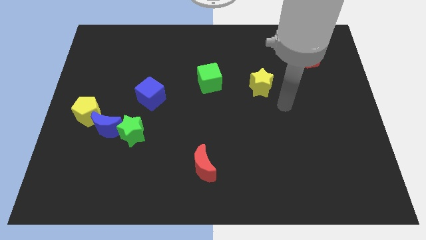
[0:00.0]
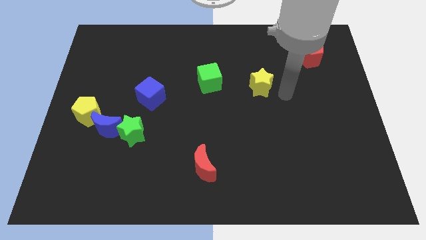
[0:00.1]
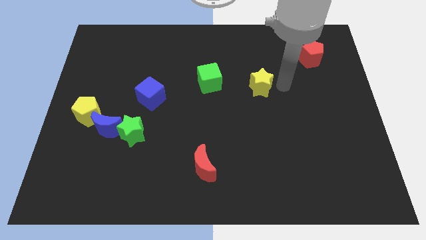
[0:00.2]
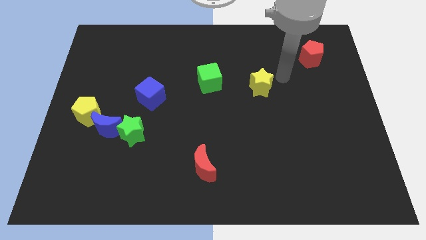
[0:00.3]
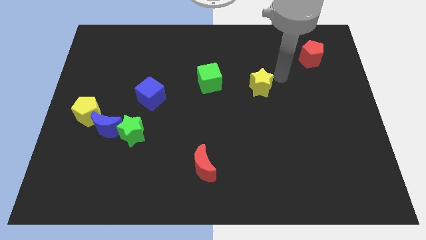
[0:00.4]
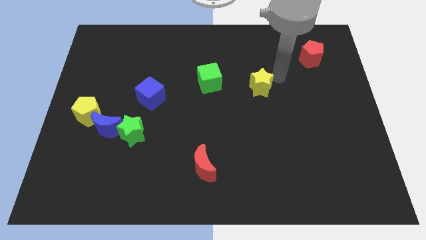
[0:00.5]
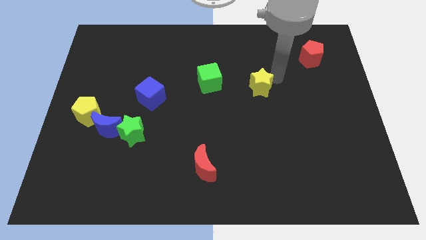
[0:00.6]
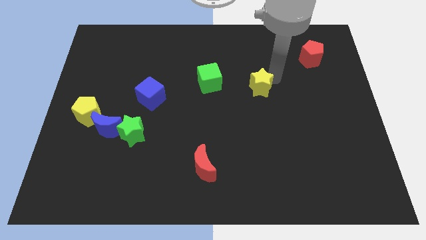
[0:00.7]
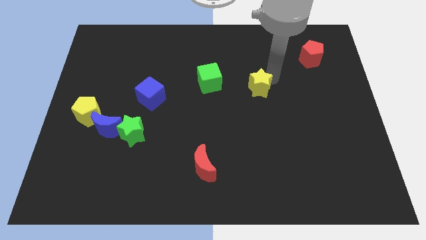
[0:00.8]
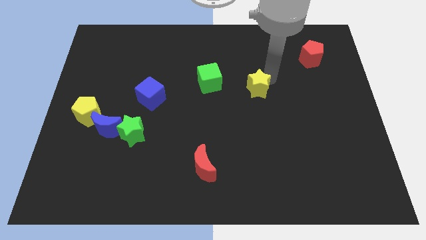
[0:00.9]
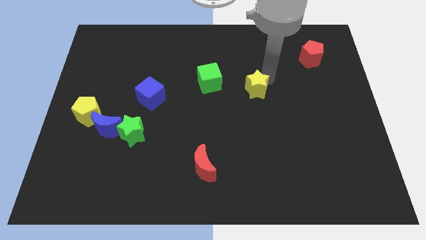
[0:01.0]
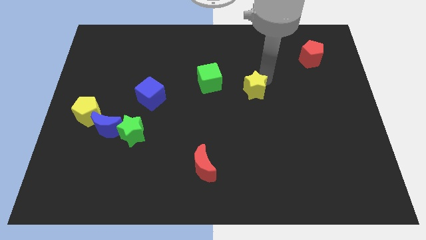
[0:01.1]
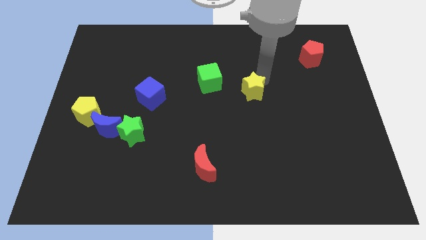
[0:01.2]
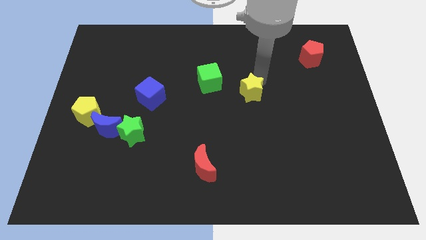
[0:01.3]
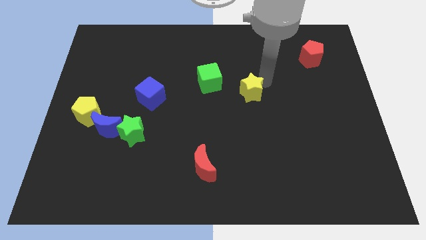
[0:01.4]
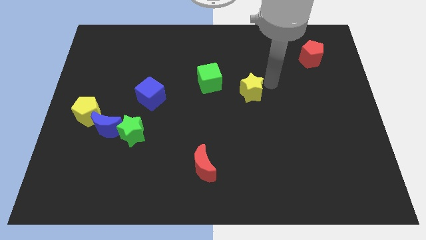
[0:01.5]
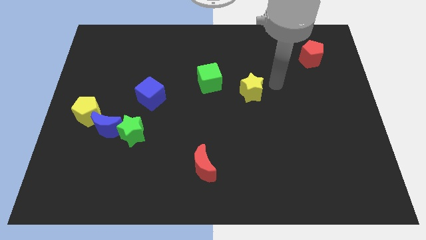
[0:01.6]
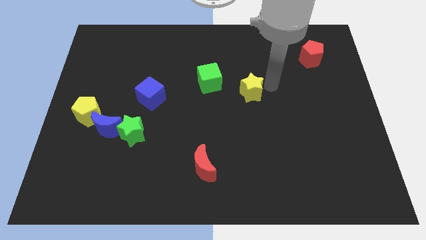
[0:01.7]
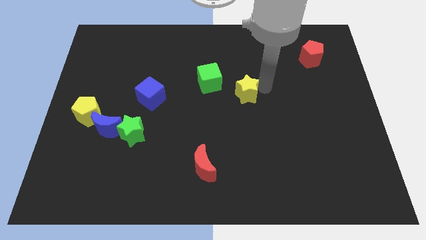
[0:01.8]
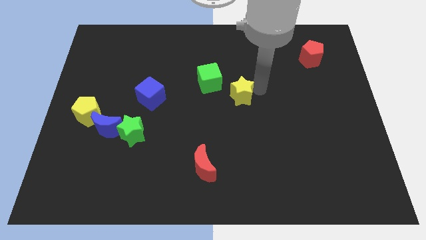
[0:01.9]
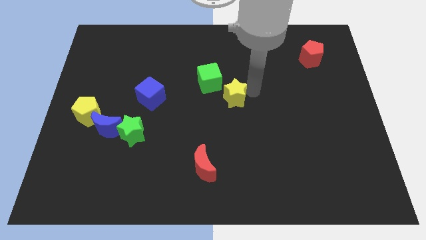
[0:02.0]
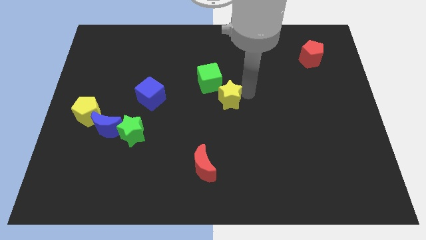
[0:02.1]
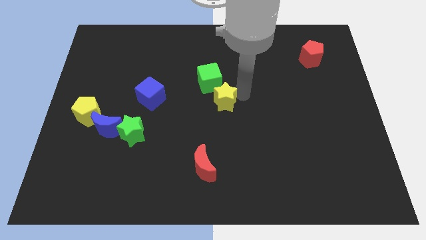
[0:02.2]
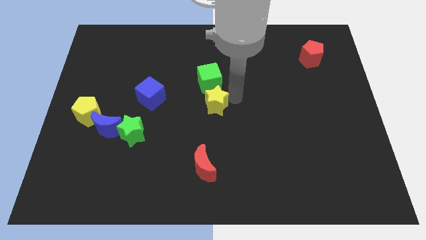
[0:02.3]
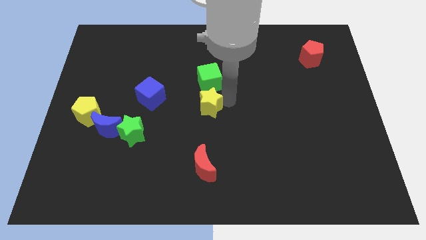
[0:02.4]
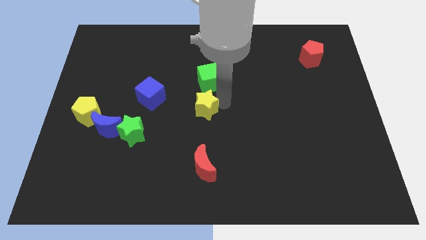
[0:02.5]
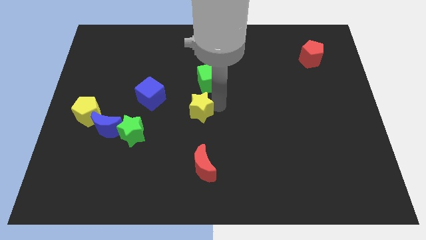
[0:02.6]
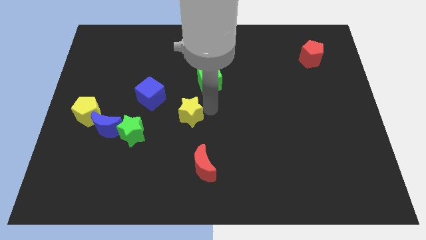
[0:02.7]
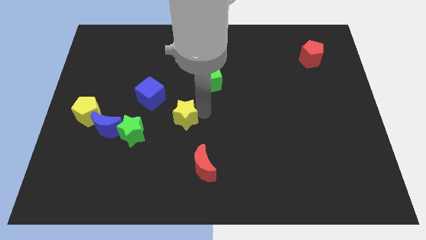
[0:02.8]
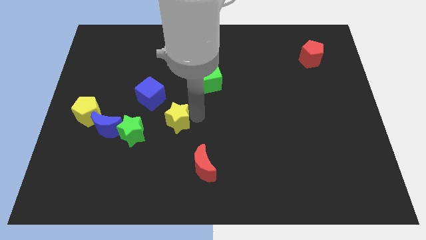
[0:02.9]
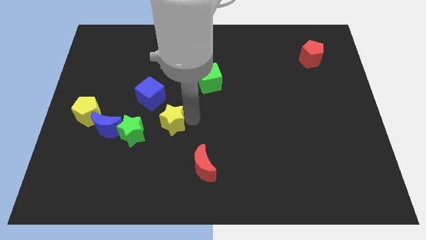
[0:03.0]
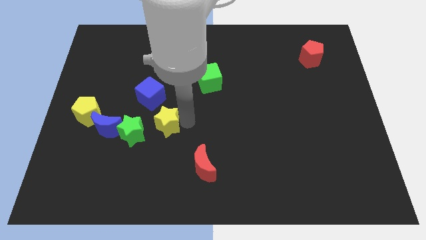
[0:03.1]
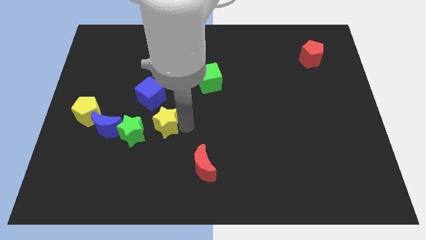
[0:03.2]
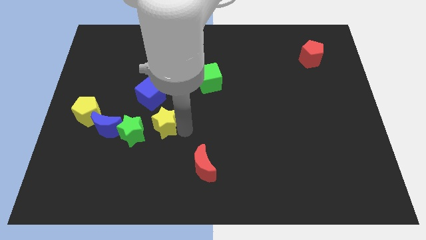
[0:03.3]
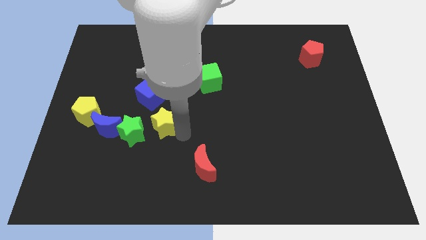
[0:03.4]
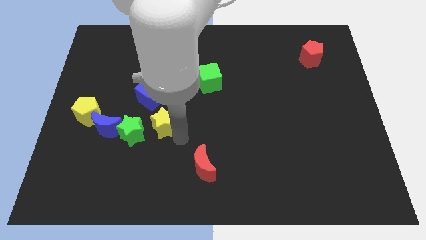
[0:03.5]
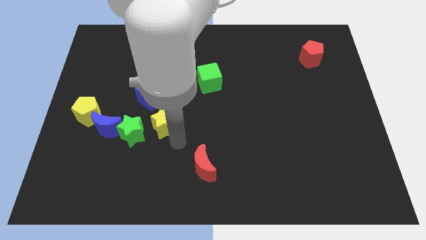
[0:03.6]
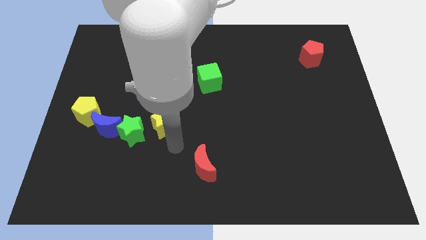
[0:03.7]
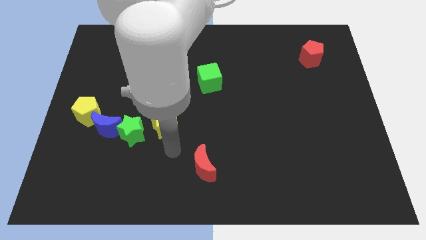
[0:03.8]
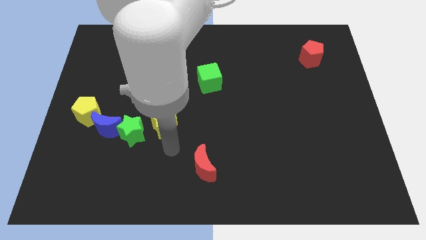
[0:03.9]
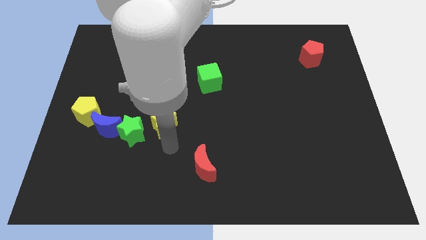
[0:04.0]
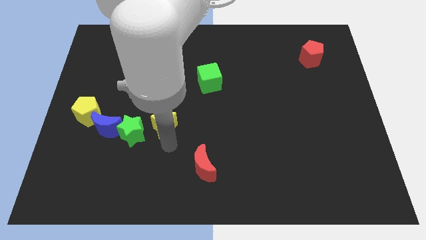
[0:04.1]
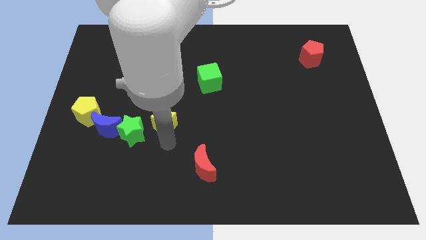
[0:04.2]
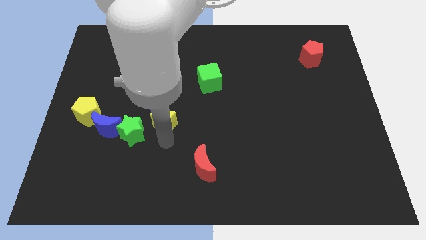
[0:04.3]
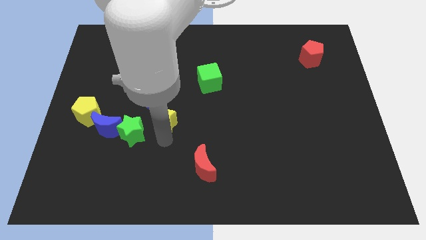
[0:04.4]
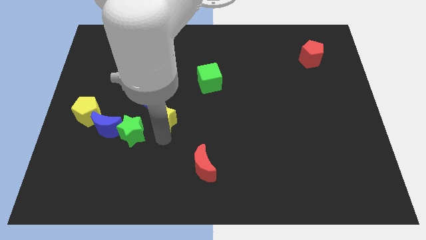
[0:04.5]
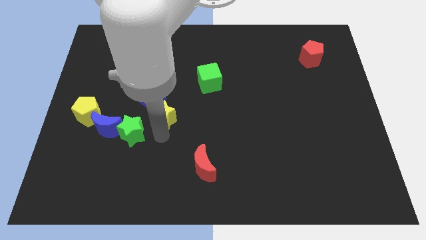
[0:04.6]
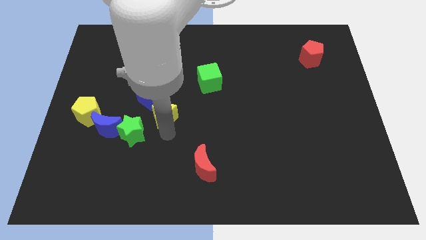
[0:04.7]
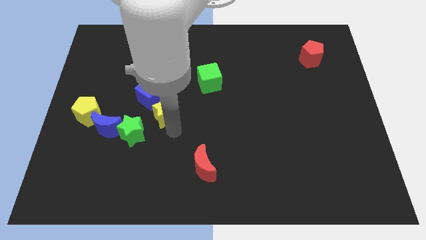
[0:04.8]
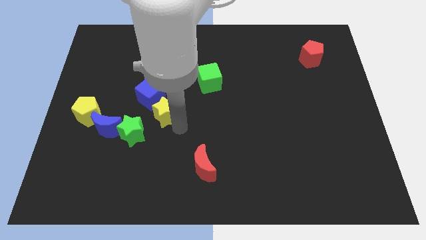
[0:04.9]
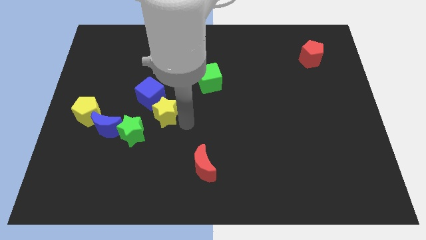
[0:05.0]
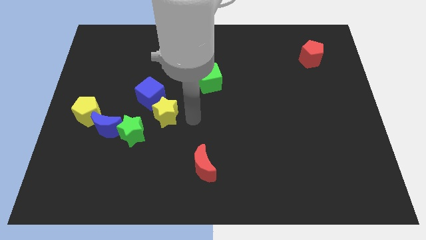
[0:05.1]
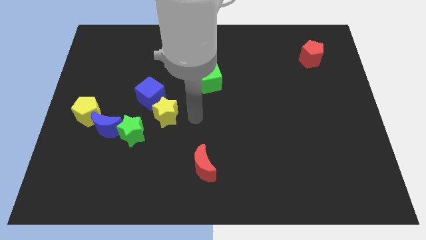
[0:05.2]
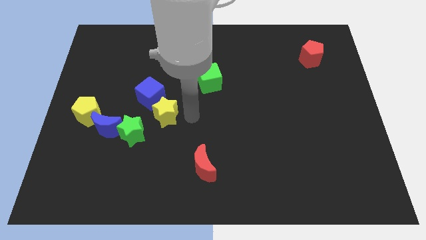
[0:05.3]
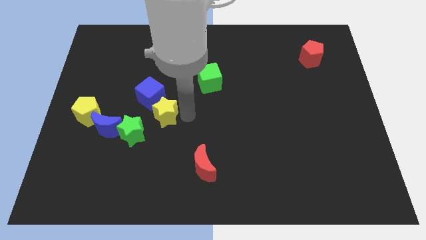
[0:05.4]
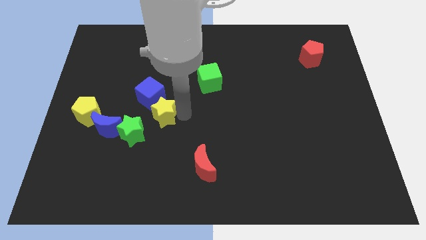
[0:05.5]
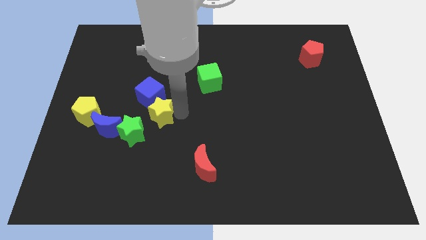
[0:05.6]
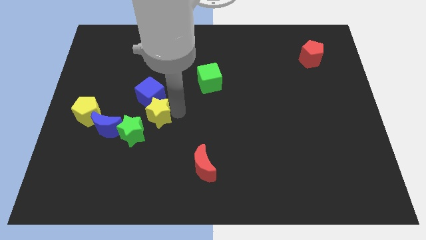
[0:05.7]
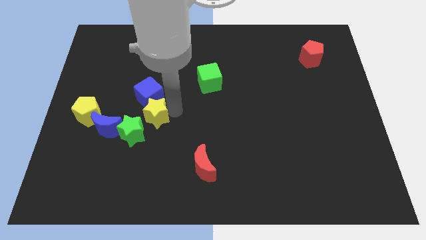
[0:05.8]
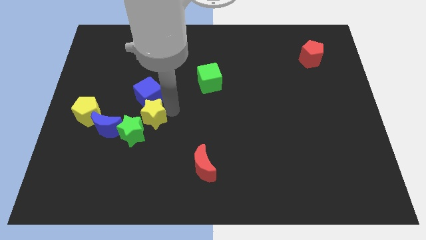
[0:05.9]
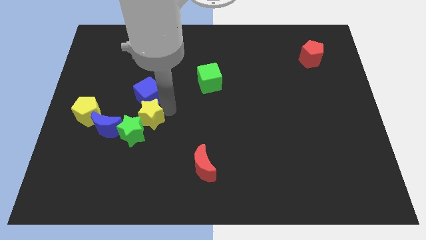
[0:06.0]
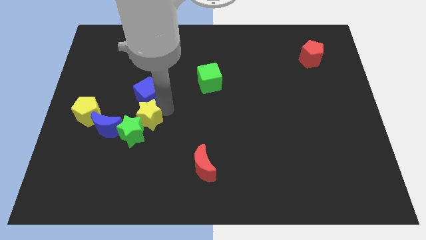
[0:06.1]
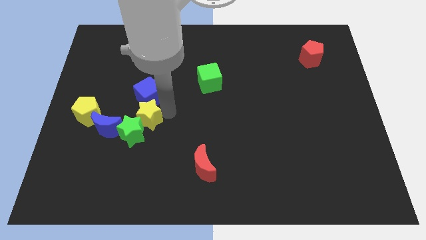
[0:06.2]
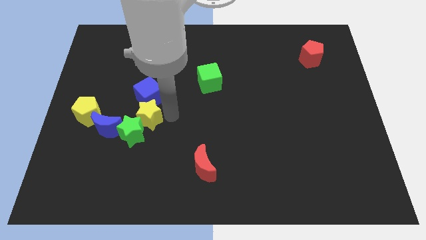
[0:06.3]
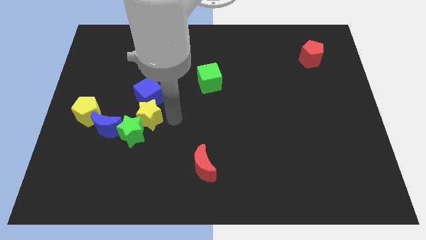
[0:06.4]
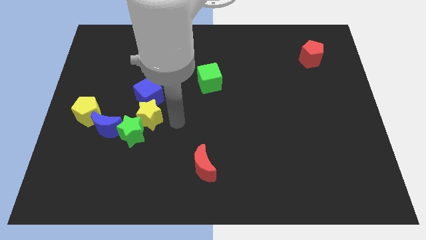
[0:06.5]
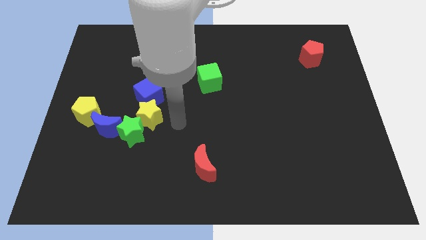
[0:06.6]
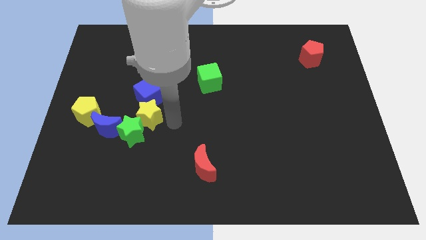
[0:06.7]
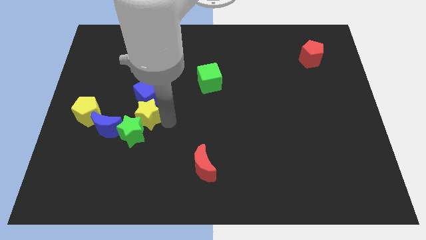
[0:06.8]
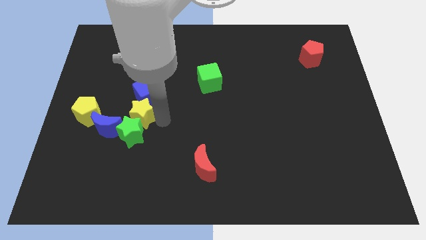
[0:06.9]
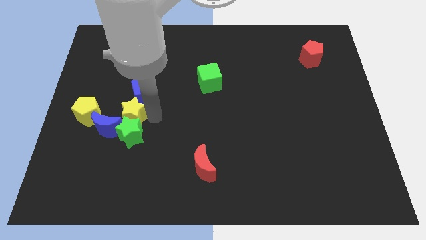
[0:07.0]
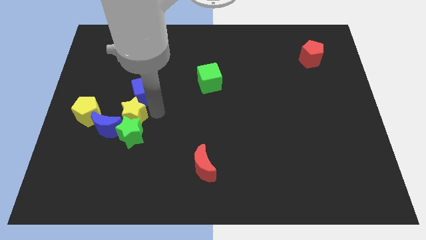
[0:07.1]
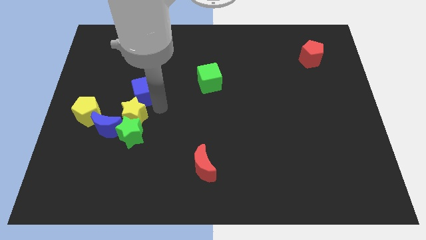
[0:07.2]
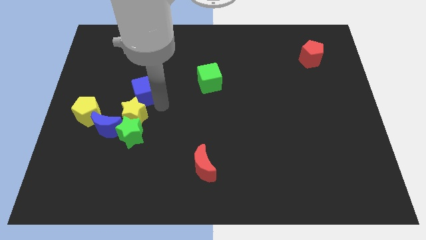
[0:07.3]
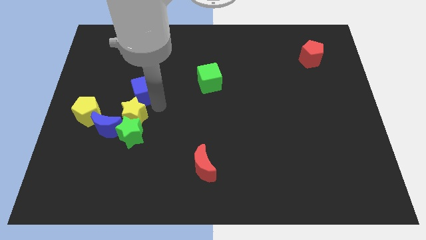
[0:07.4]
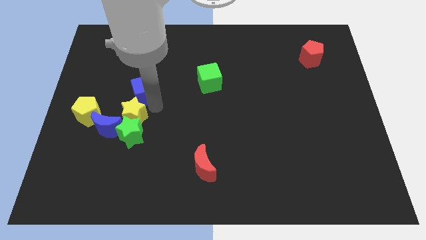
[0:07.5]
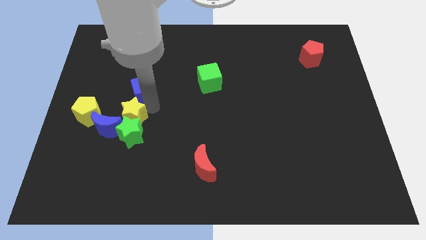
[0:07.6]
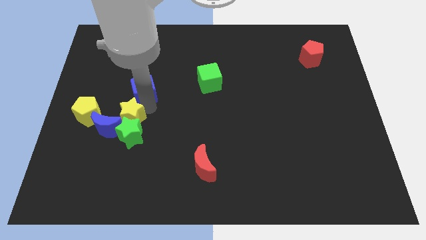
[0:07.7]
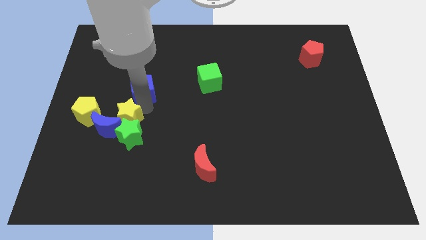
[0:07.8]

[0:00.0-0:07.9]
move the yellow star to the blue moon
